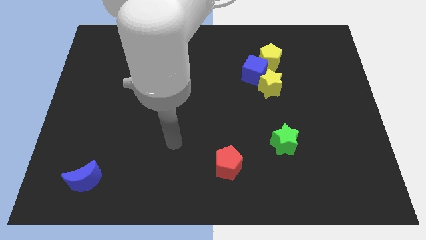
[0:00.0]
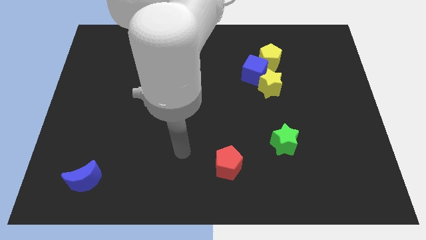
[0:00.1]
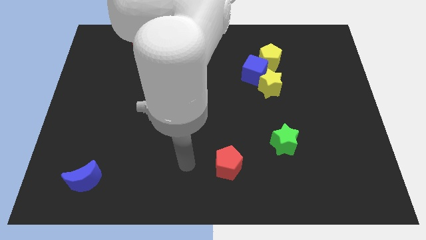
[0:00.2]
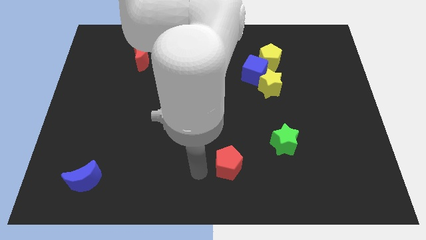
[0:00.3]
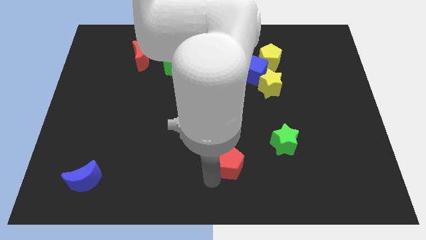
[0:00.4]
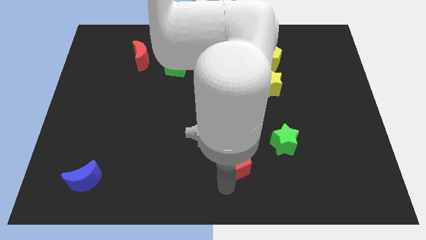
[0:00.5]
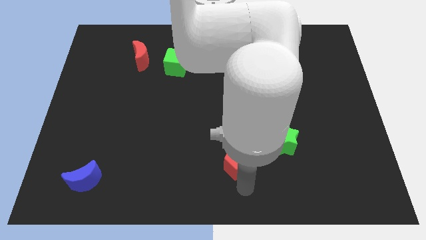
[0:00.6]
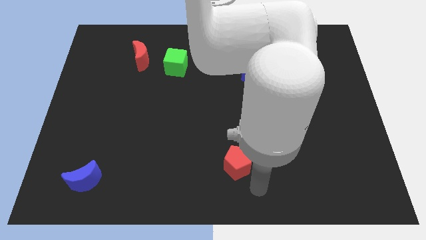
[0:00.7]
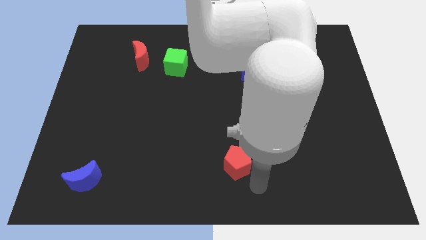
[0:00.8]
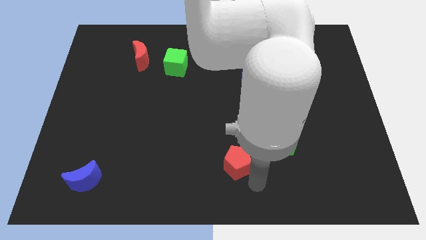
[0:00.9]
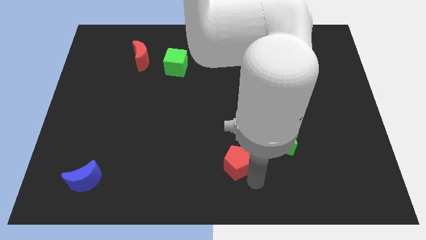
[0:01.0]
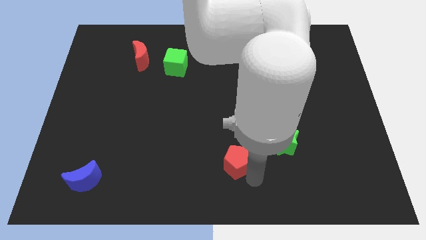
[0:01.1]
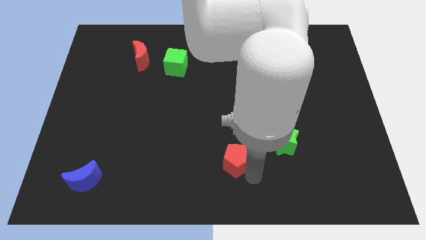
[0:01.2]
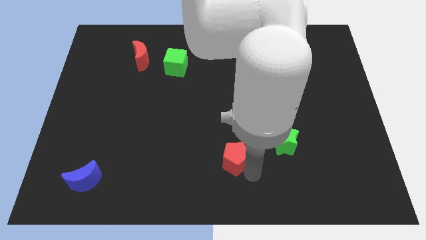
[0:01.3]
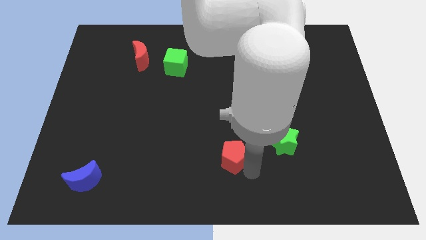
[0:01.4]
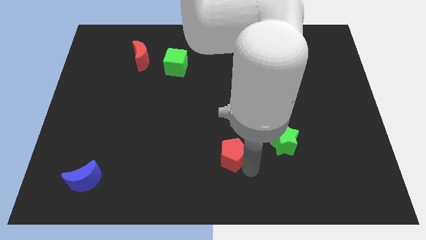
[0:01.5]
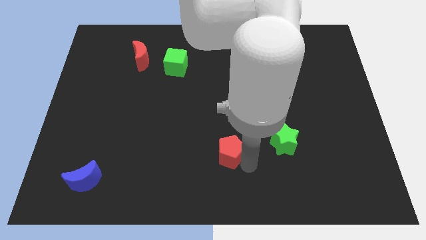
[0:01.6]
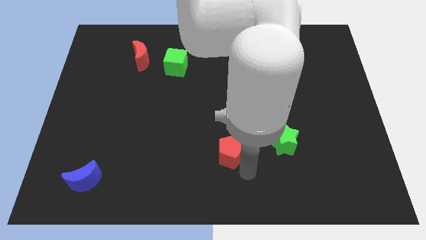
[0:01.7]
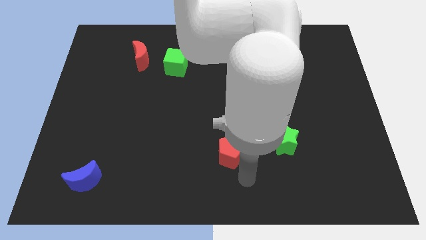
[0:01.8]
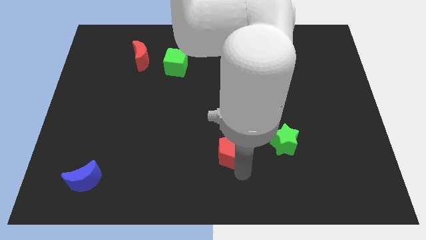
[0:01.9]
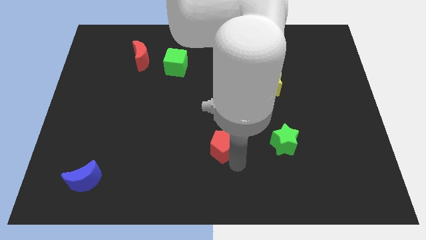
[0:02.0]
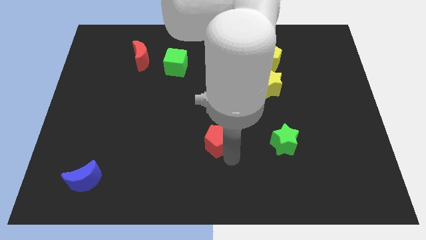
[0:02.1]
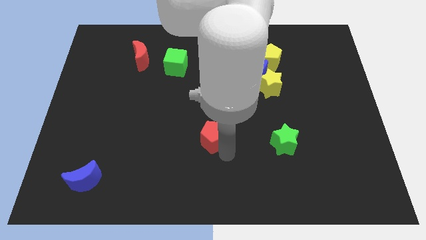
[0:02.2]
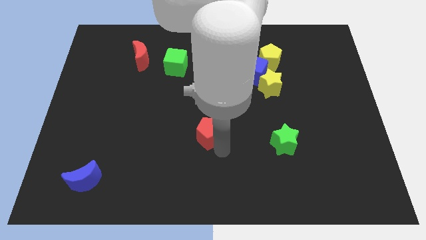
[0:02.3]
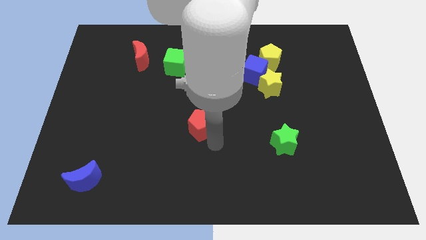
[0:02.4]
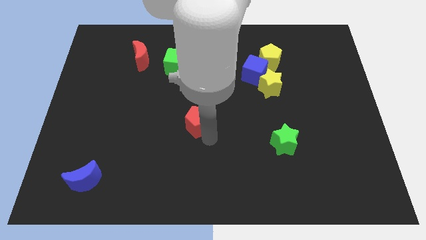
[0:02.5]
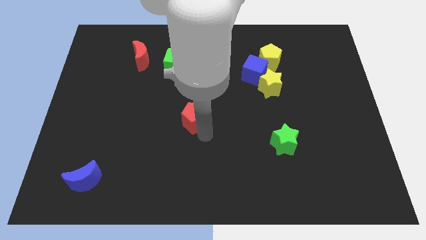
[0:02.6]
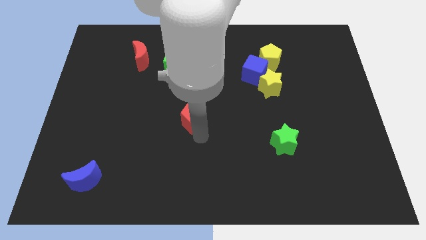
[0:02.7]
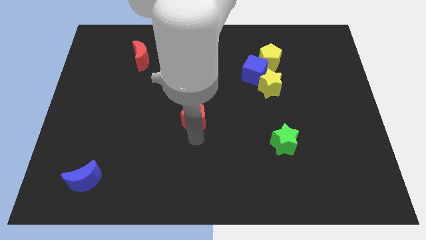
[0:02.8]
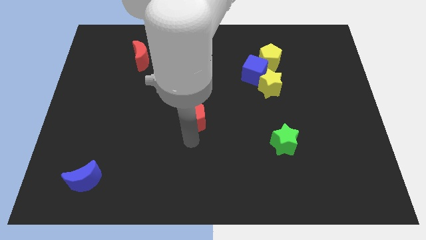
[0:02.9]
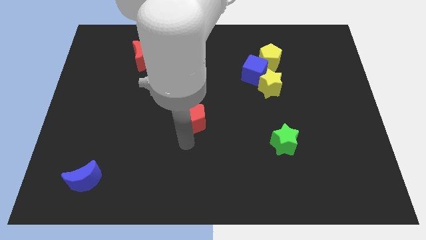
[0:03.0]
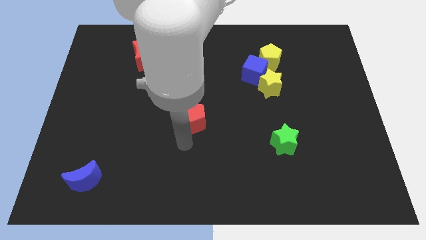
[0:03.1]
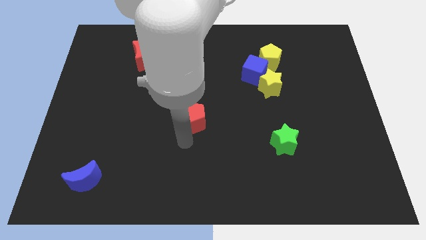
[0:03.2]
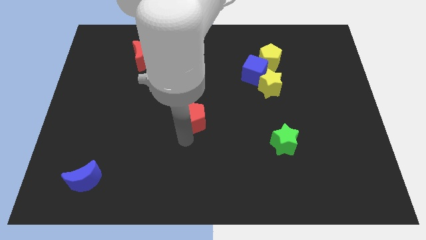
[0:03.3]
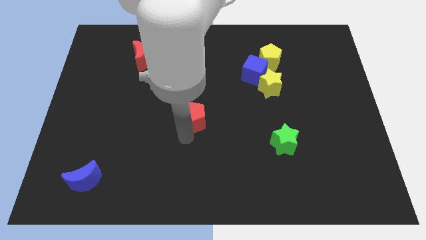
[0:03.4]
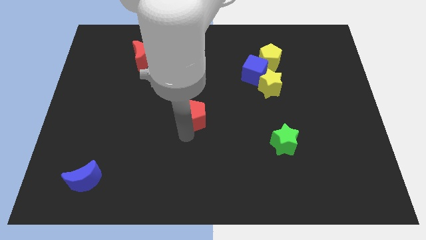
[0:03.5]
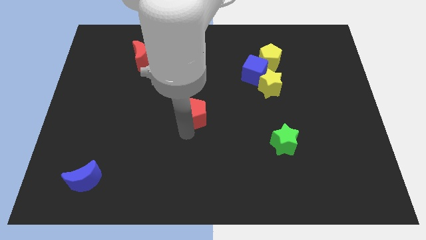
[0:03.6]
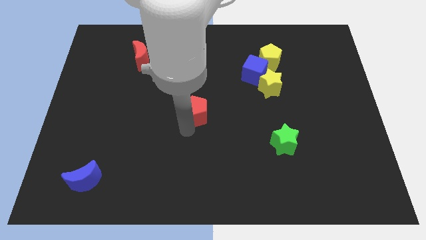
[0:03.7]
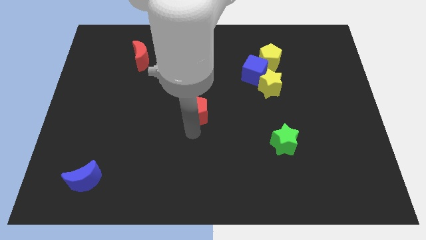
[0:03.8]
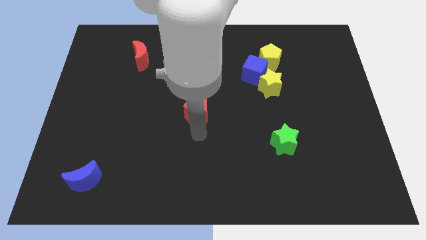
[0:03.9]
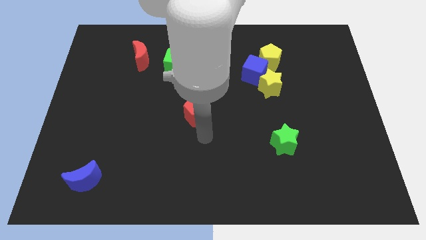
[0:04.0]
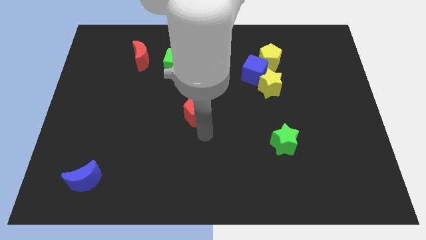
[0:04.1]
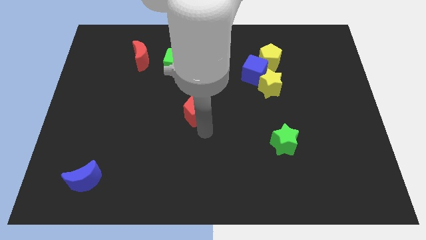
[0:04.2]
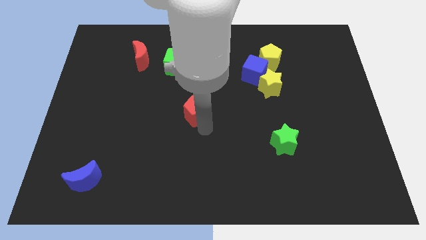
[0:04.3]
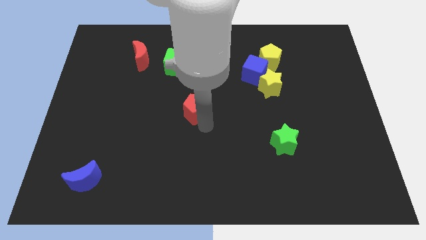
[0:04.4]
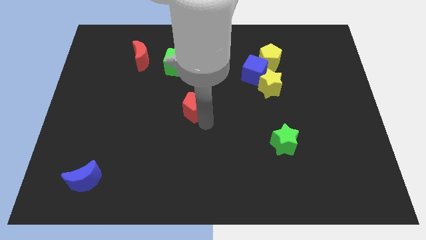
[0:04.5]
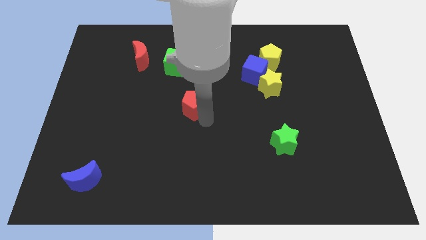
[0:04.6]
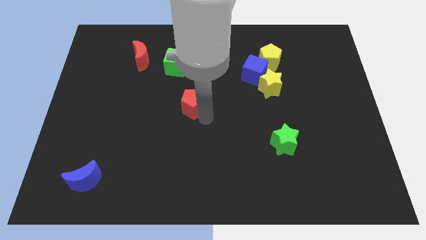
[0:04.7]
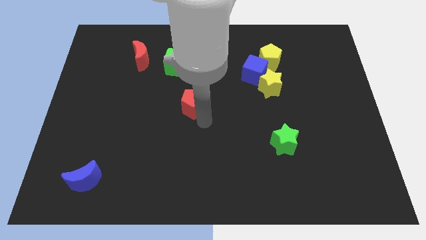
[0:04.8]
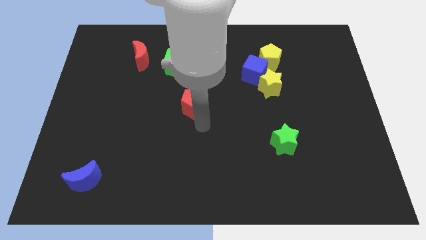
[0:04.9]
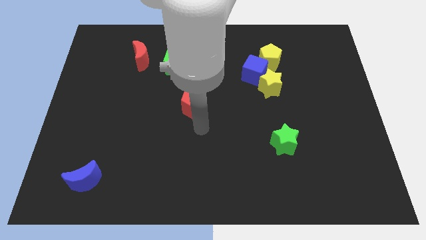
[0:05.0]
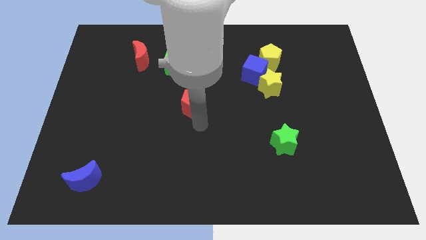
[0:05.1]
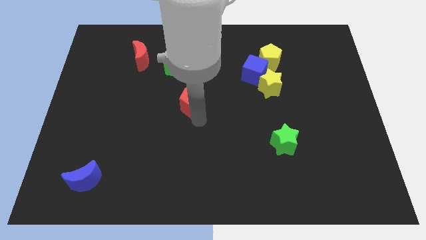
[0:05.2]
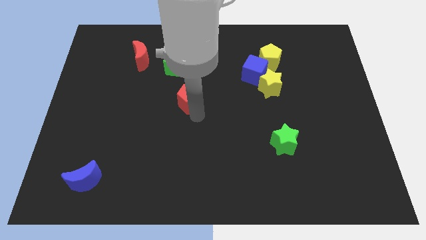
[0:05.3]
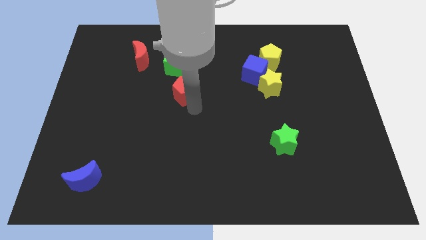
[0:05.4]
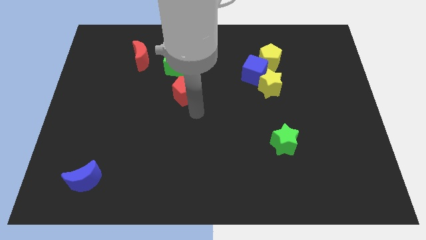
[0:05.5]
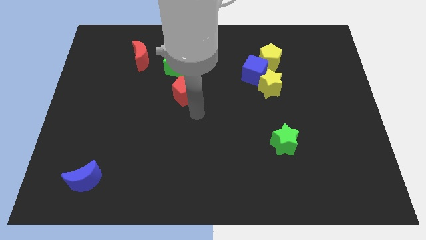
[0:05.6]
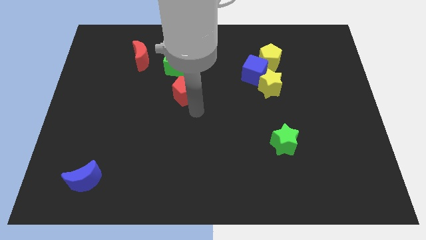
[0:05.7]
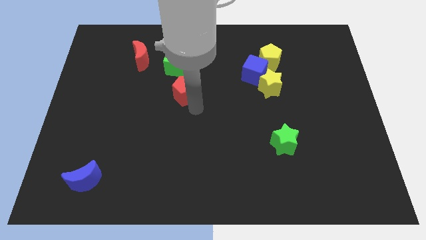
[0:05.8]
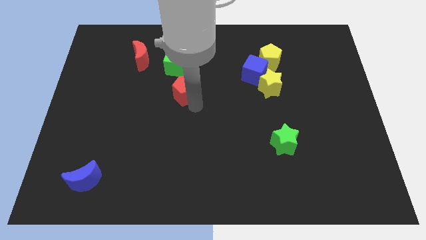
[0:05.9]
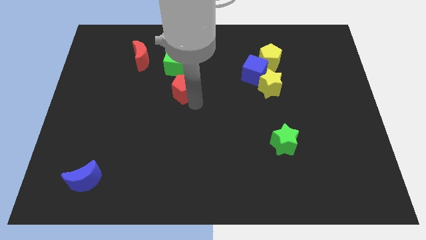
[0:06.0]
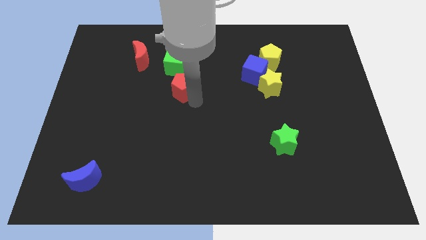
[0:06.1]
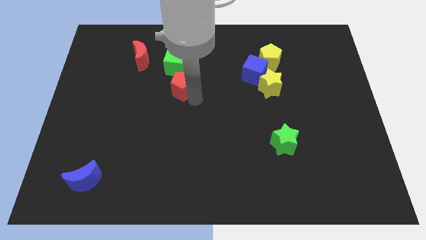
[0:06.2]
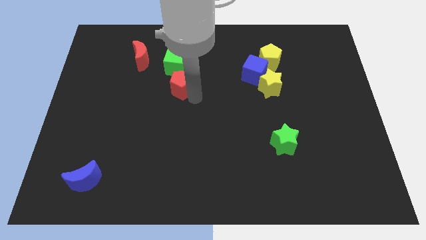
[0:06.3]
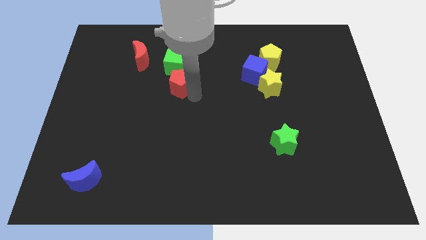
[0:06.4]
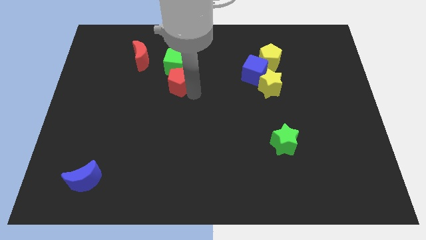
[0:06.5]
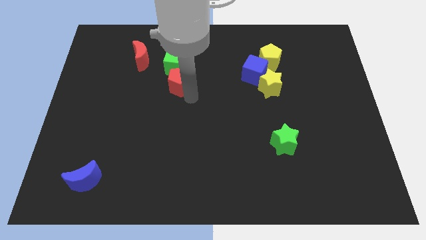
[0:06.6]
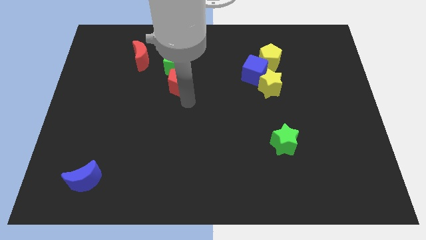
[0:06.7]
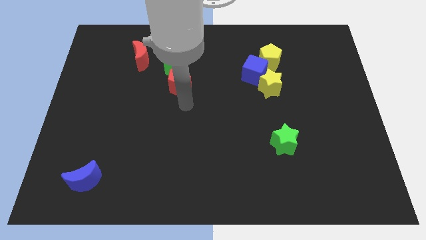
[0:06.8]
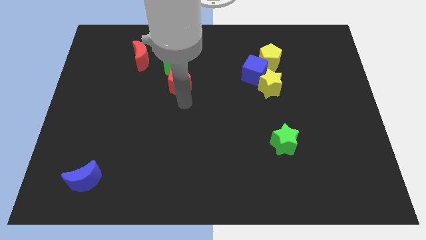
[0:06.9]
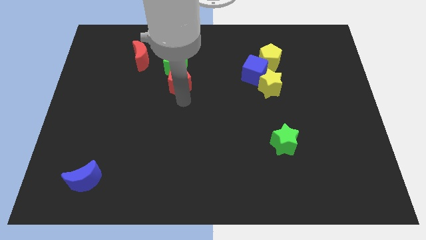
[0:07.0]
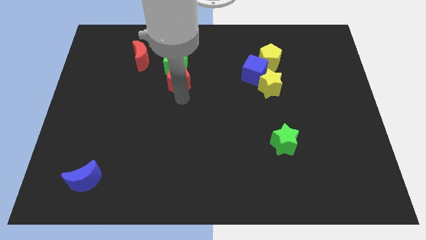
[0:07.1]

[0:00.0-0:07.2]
move the red pentagon close to the green cube

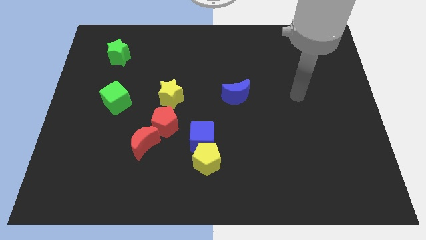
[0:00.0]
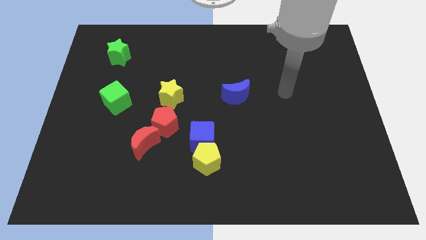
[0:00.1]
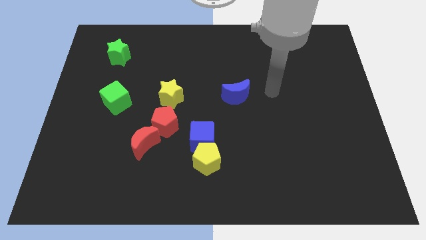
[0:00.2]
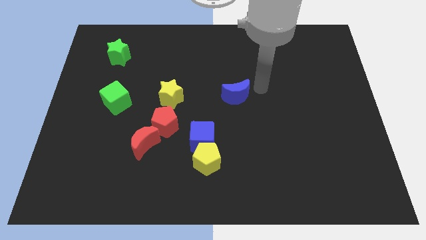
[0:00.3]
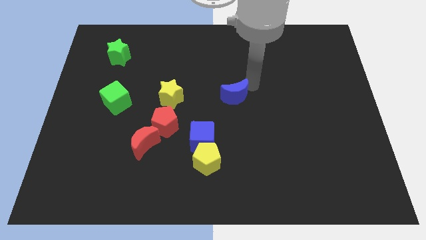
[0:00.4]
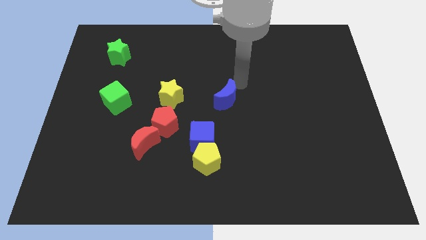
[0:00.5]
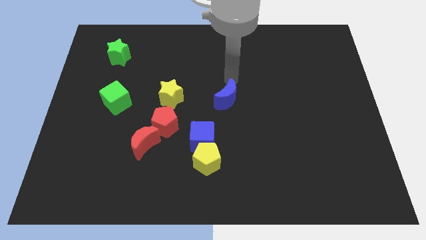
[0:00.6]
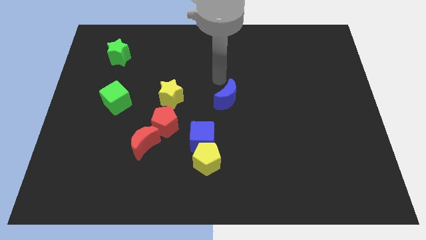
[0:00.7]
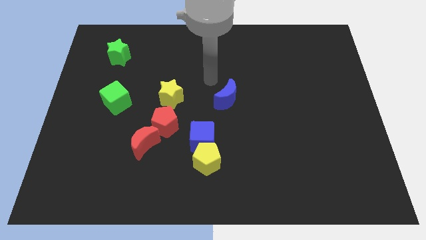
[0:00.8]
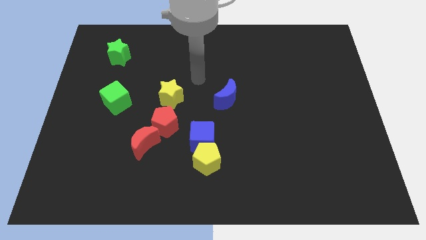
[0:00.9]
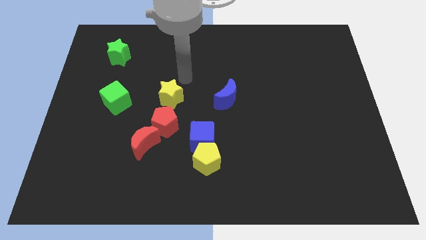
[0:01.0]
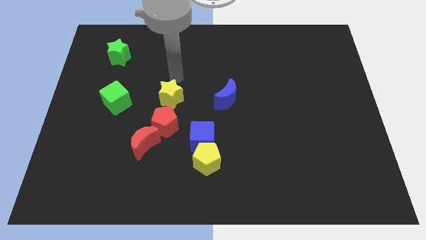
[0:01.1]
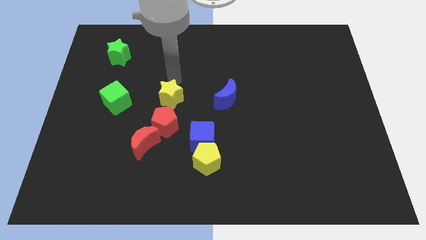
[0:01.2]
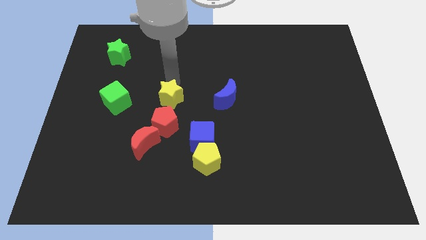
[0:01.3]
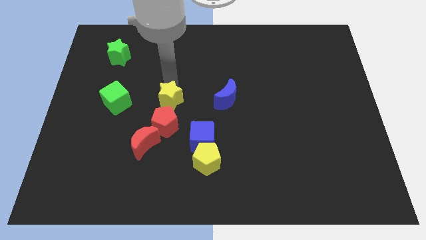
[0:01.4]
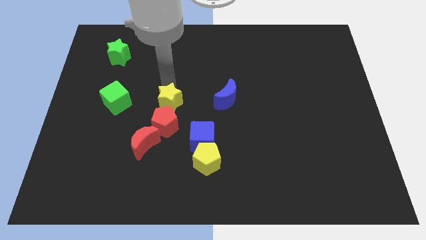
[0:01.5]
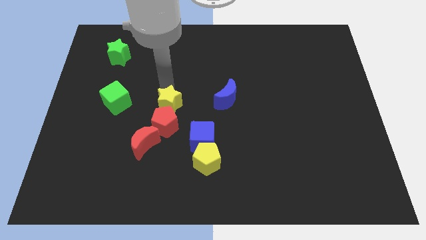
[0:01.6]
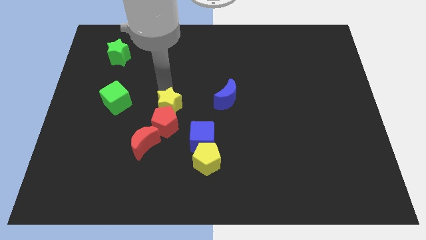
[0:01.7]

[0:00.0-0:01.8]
put the yellow star close to the red pentagon
